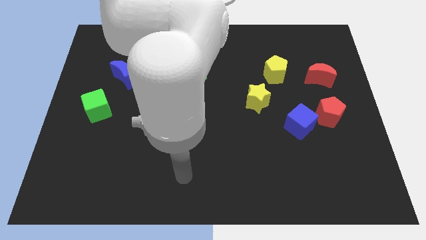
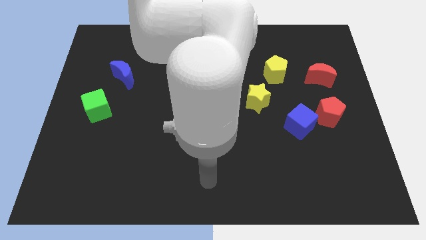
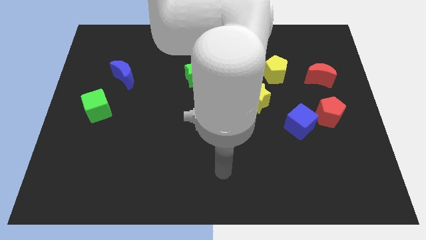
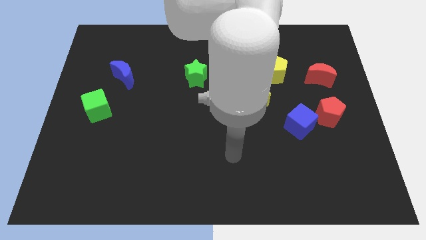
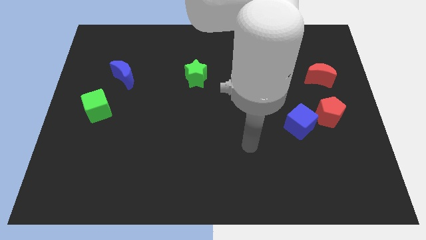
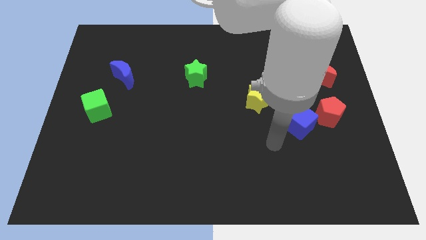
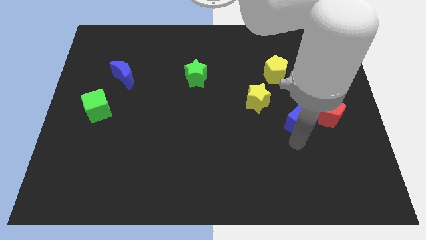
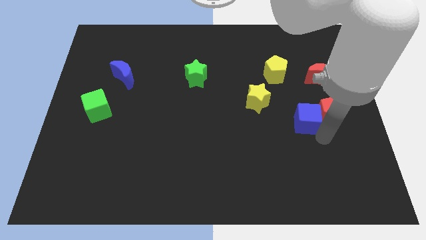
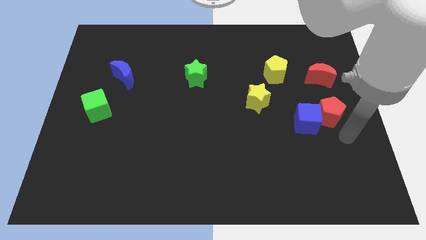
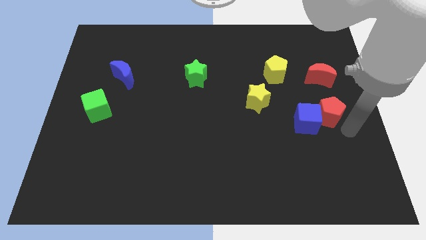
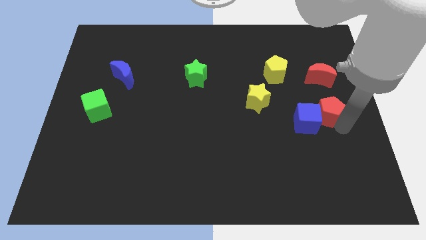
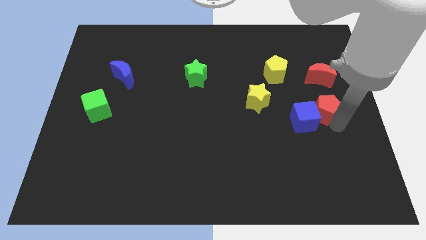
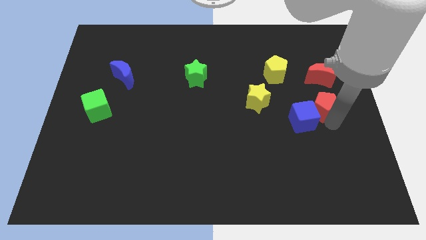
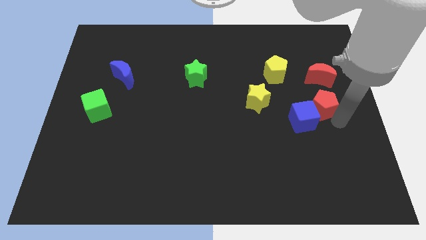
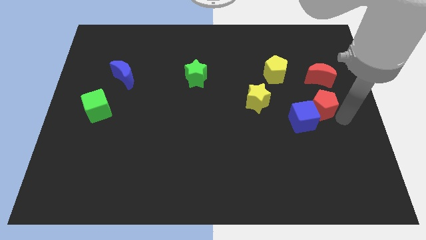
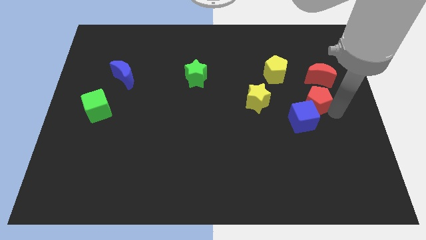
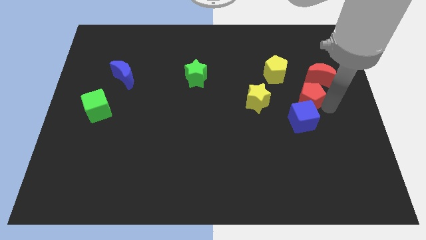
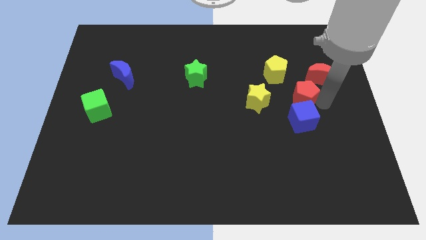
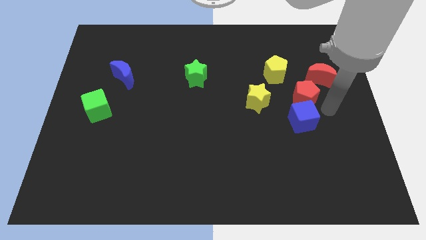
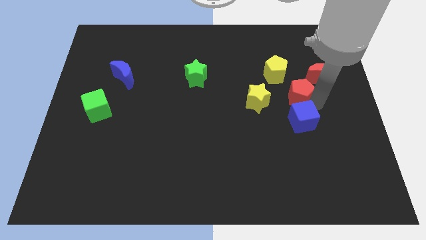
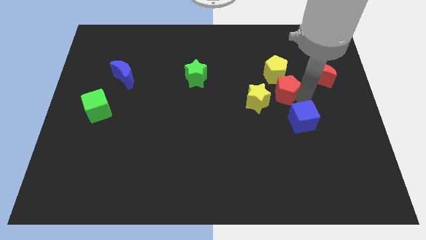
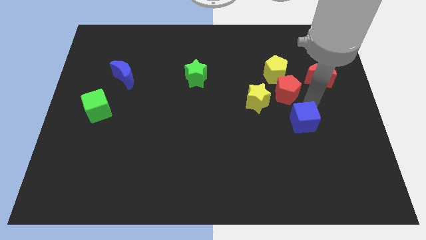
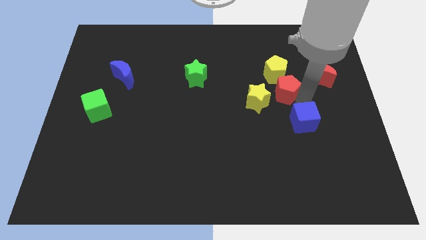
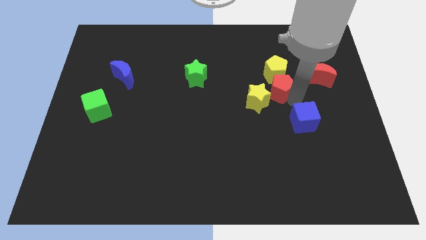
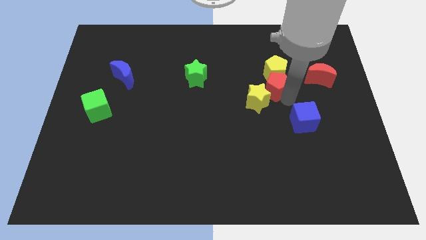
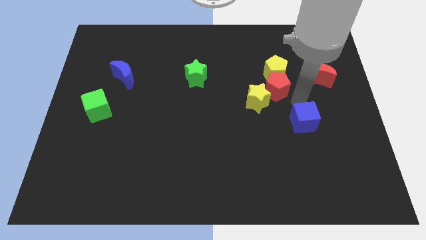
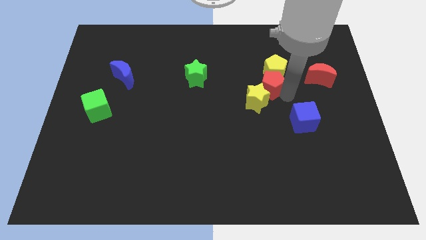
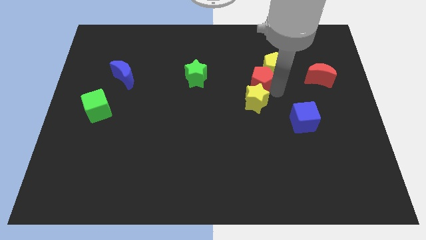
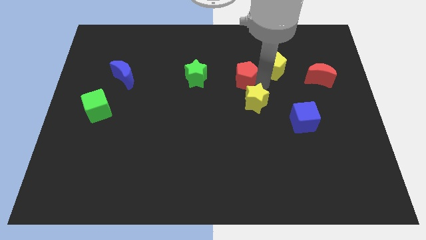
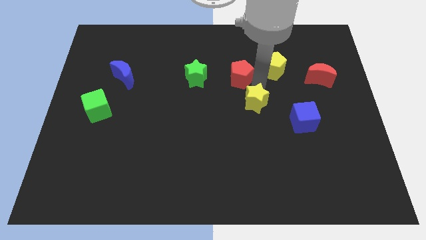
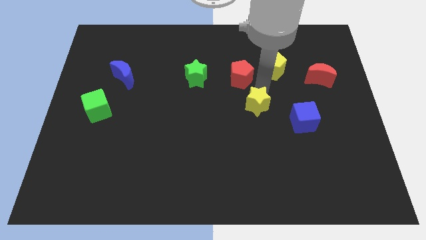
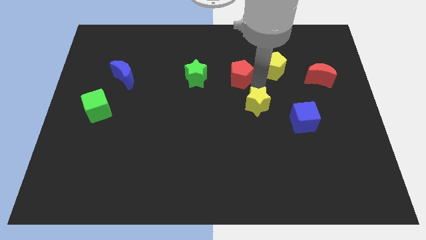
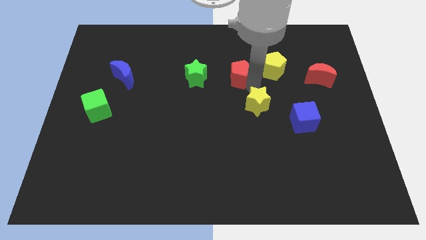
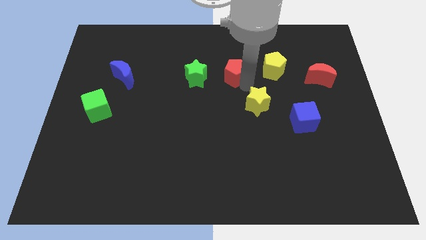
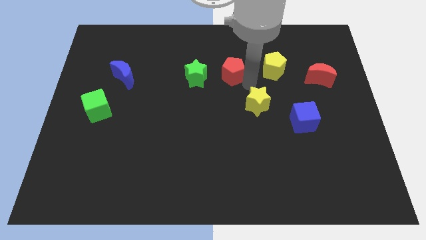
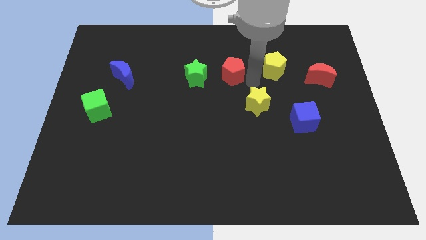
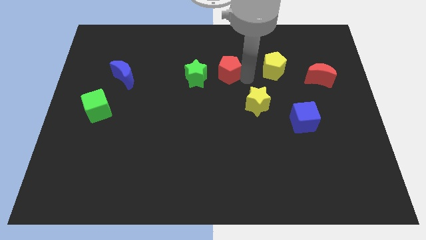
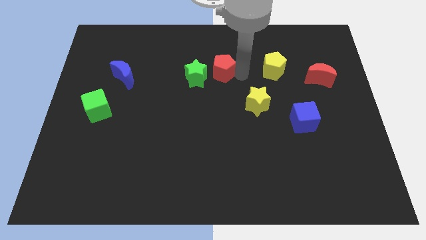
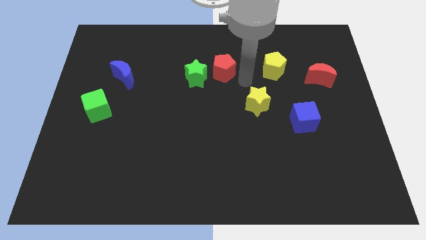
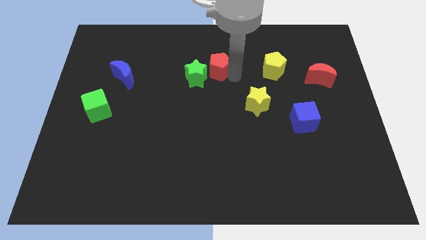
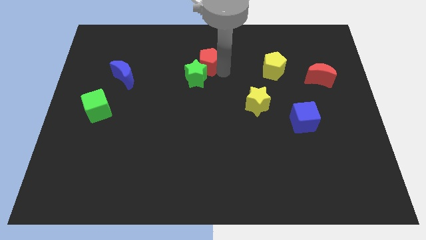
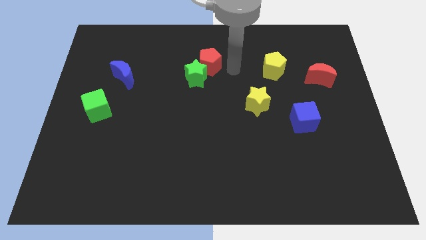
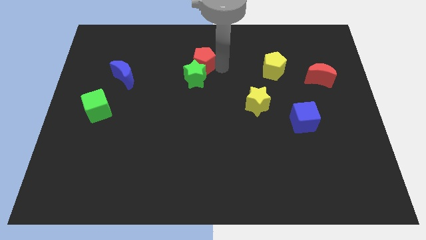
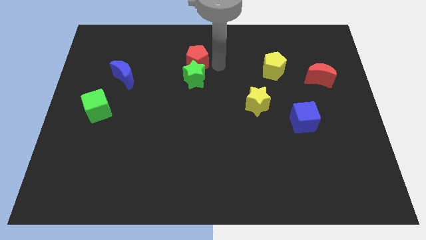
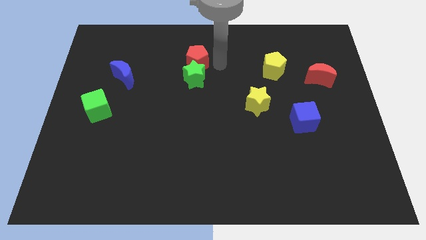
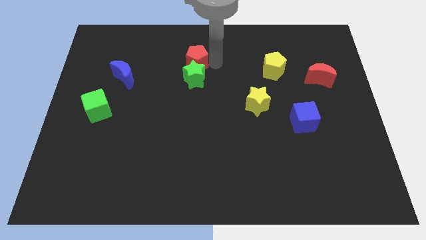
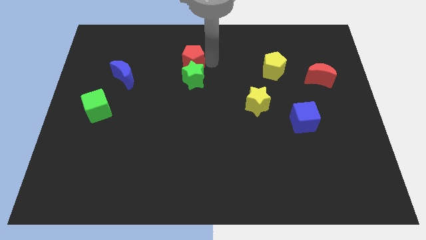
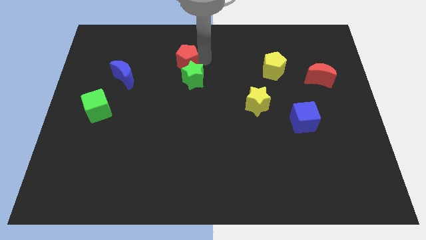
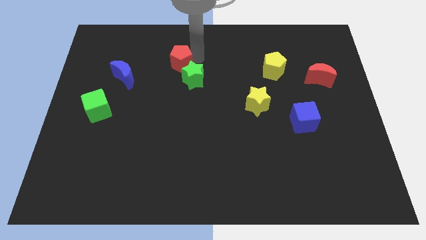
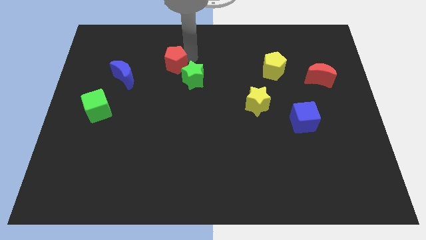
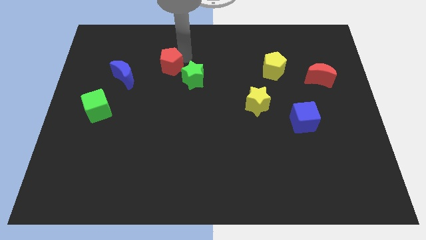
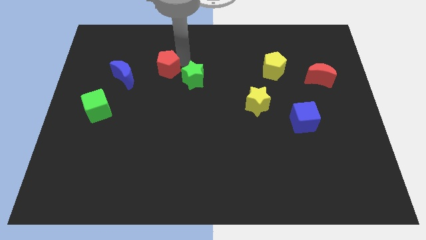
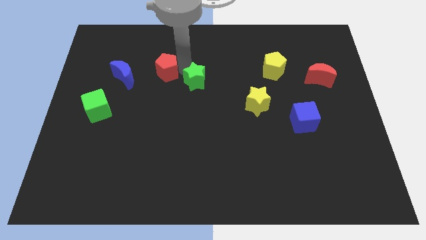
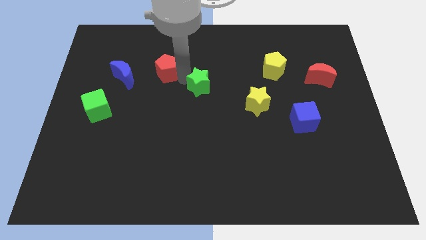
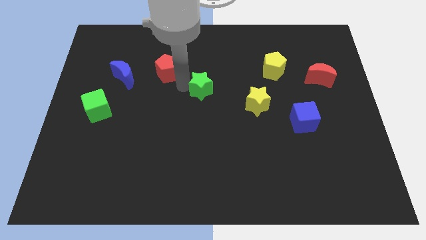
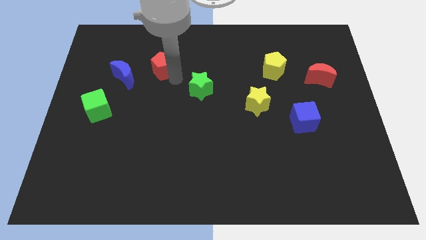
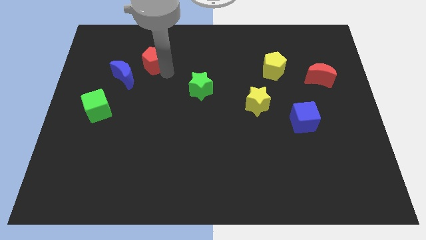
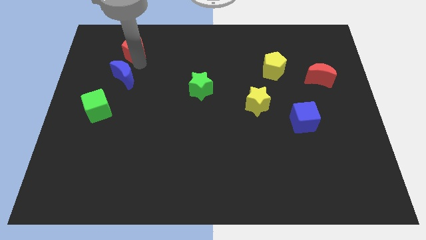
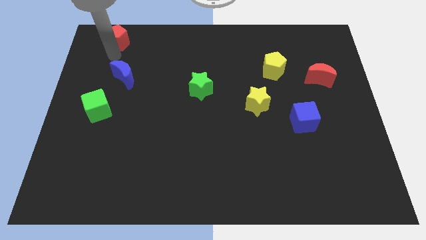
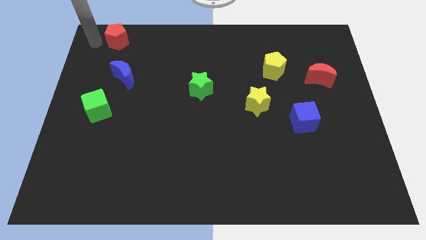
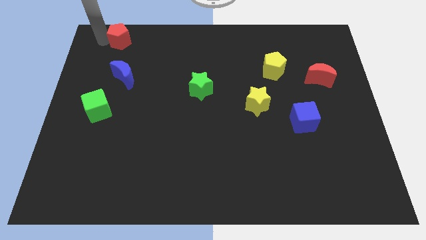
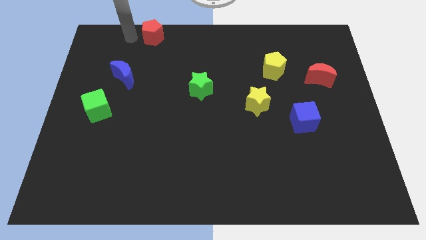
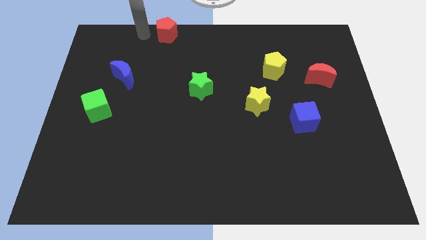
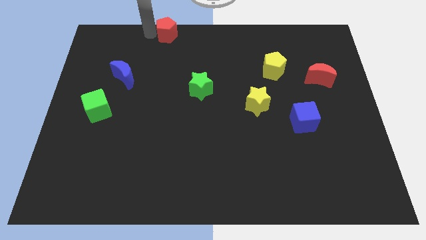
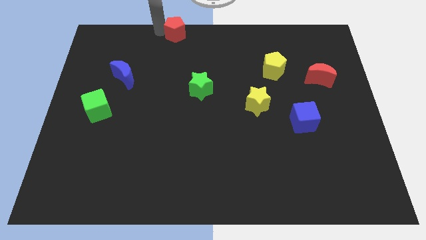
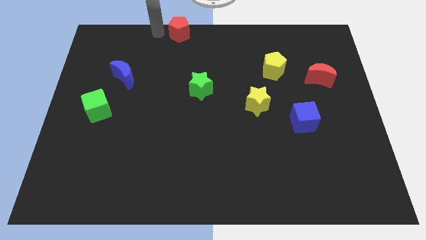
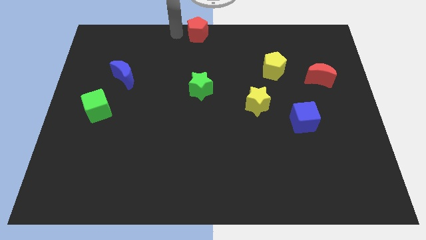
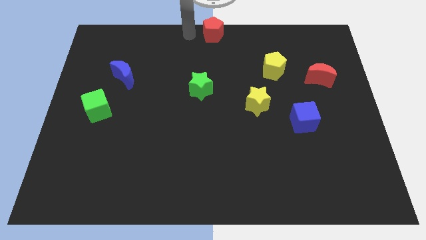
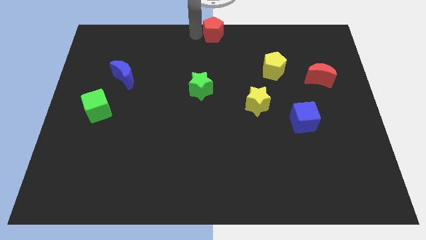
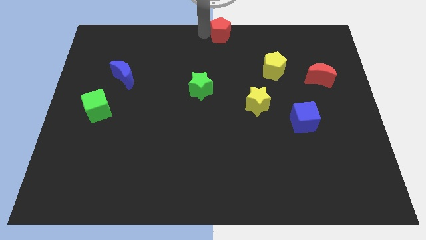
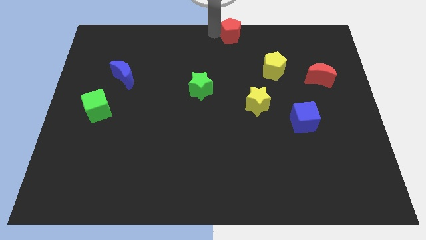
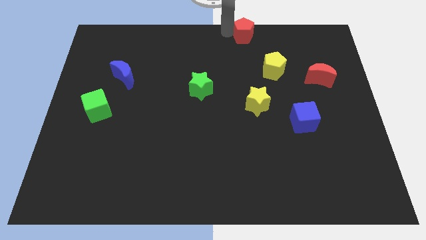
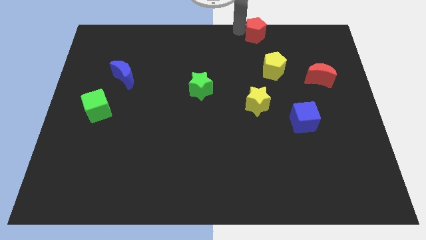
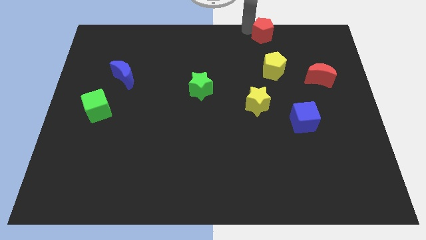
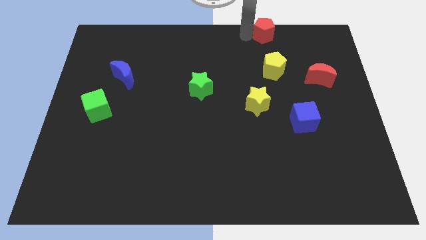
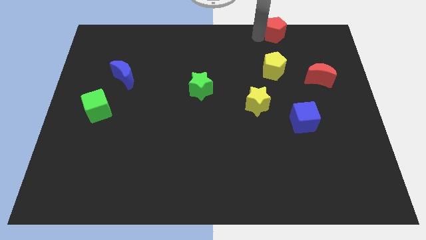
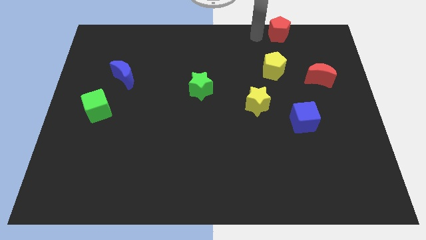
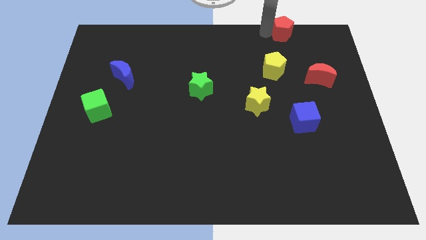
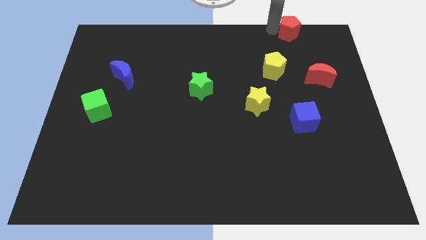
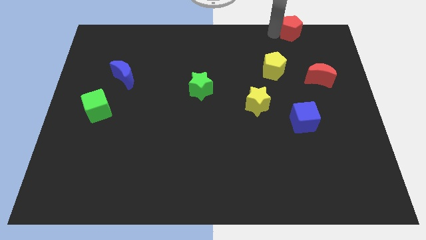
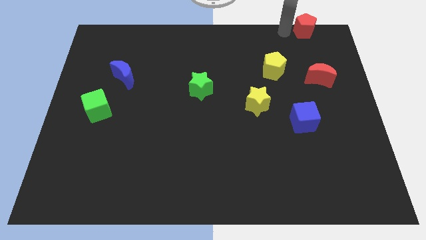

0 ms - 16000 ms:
put the red pentagon to the top right of the board
